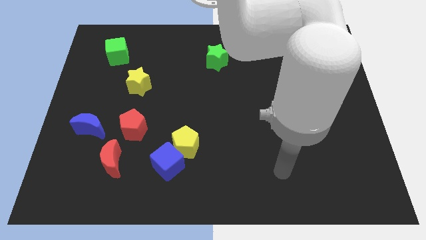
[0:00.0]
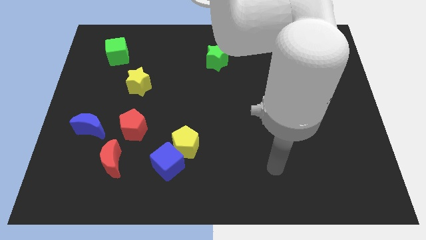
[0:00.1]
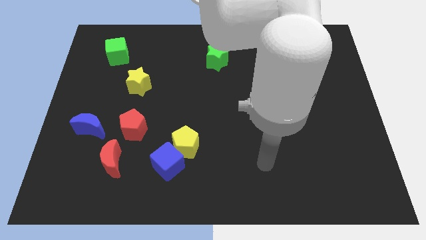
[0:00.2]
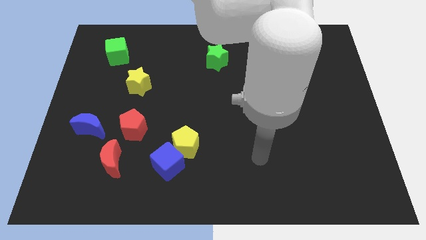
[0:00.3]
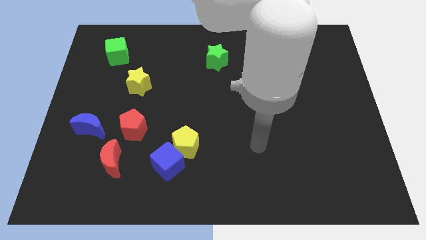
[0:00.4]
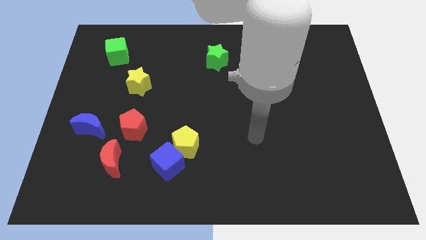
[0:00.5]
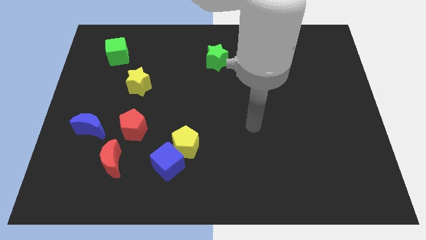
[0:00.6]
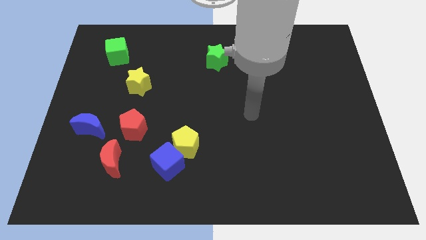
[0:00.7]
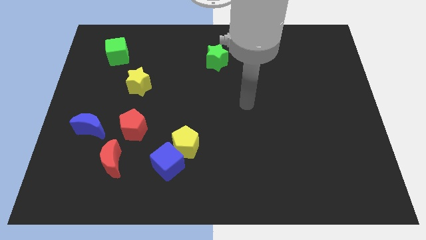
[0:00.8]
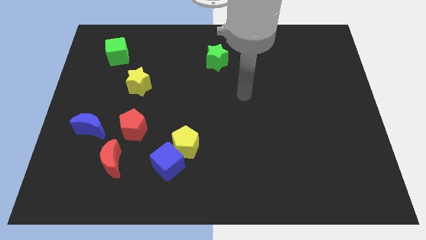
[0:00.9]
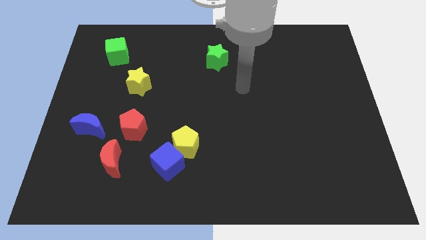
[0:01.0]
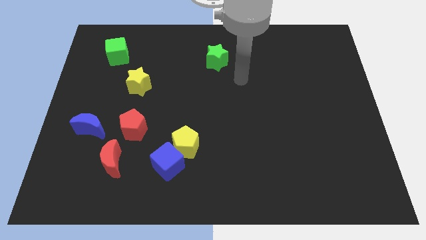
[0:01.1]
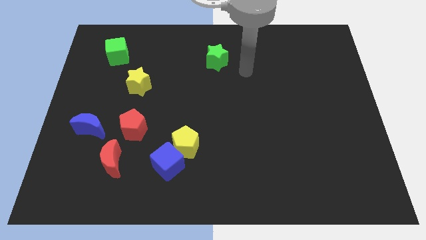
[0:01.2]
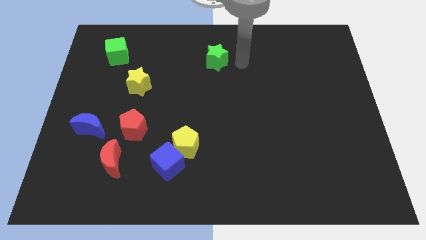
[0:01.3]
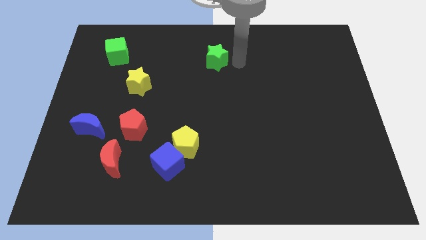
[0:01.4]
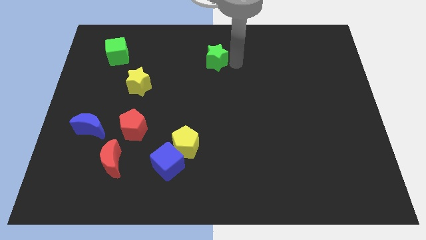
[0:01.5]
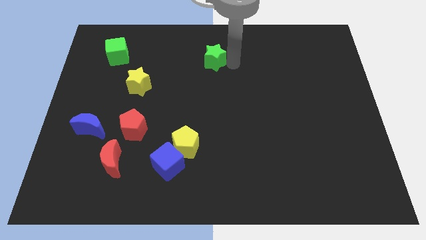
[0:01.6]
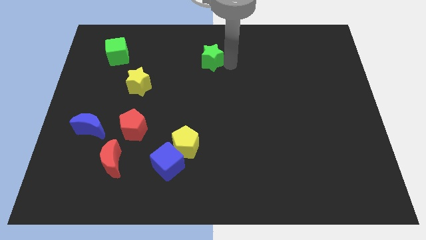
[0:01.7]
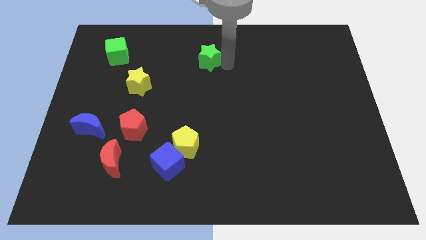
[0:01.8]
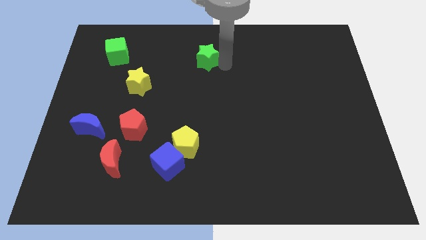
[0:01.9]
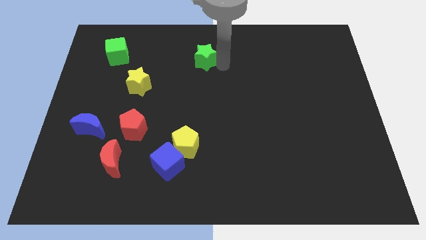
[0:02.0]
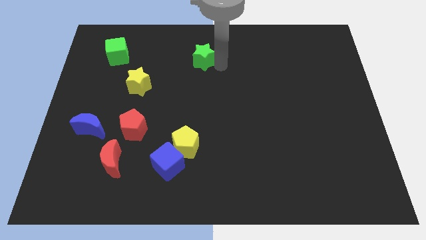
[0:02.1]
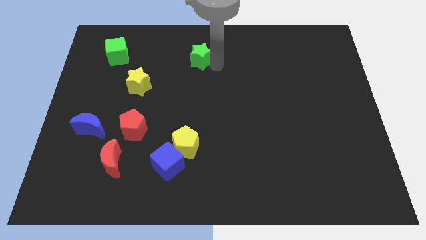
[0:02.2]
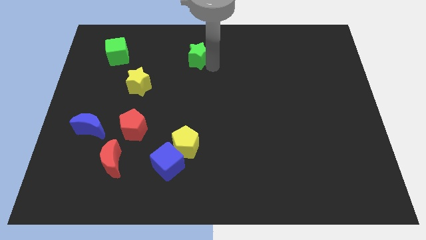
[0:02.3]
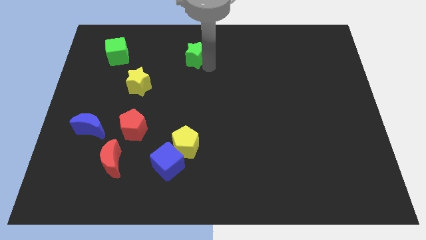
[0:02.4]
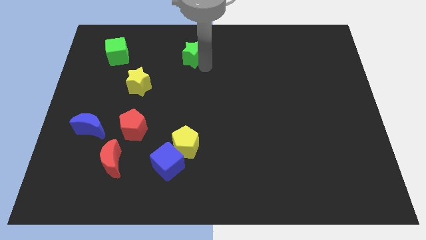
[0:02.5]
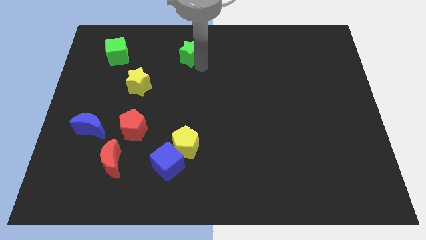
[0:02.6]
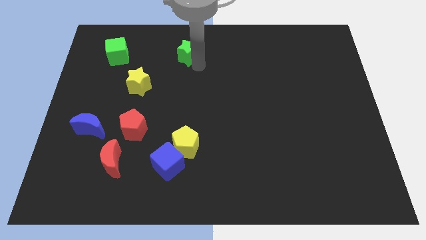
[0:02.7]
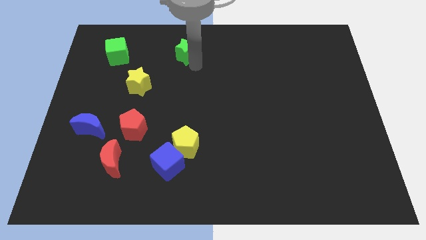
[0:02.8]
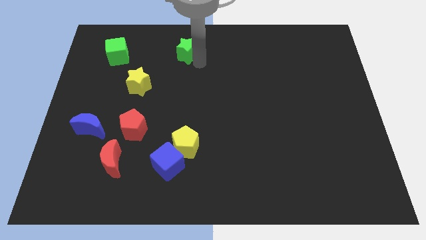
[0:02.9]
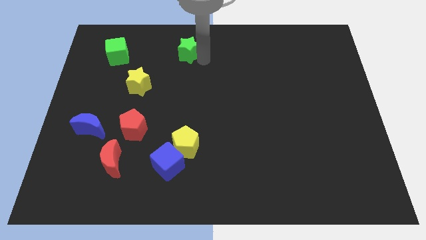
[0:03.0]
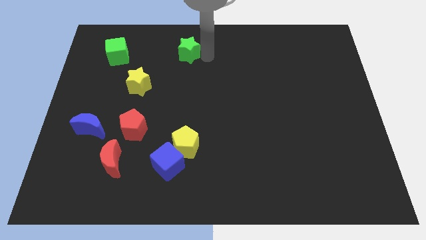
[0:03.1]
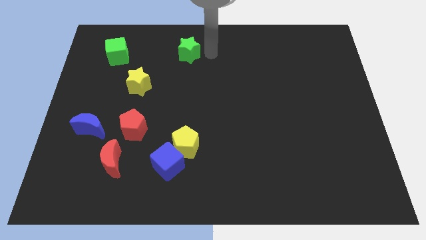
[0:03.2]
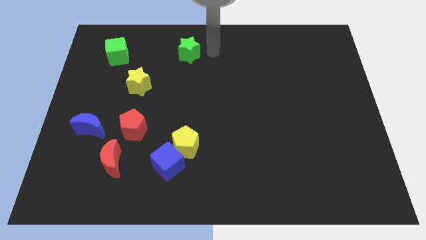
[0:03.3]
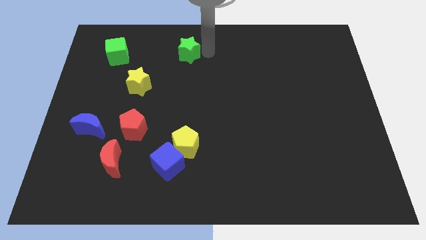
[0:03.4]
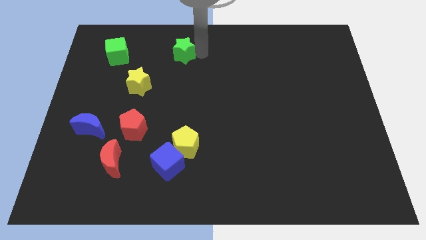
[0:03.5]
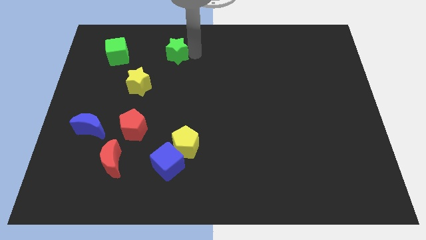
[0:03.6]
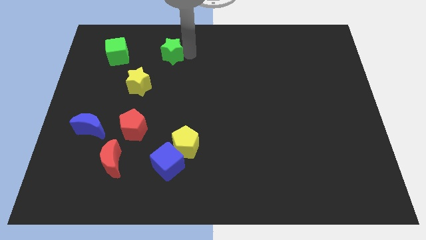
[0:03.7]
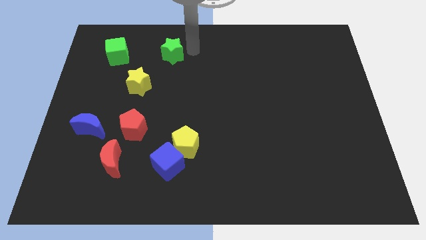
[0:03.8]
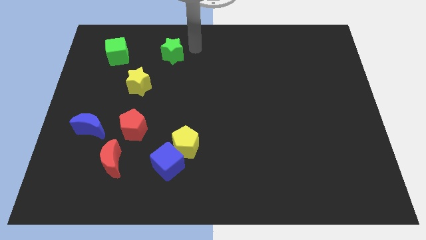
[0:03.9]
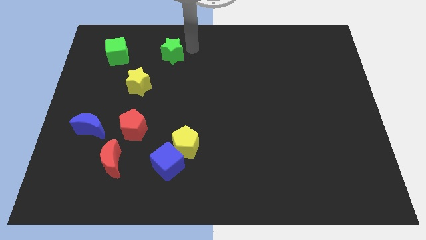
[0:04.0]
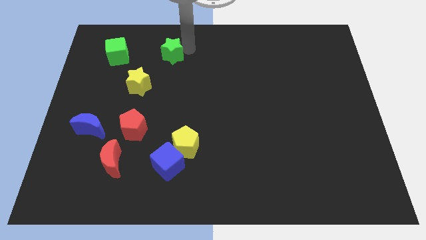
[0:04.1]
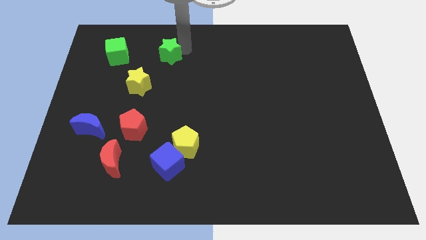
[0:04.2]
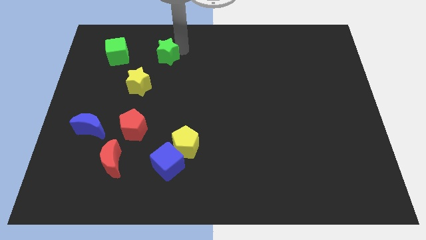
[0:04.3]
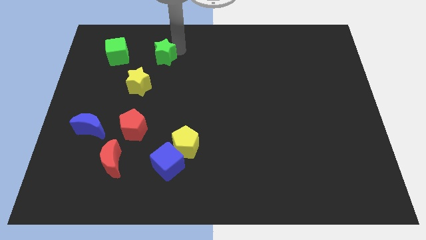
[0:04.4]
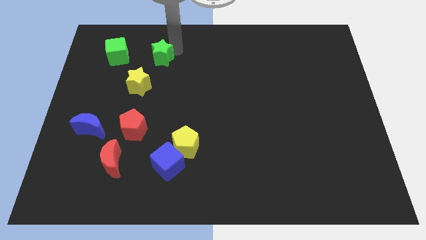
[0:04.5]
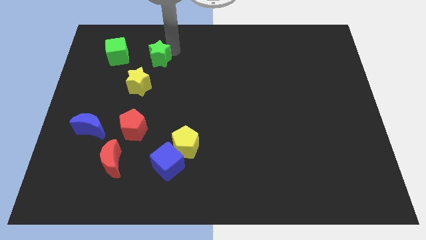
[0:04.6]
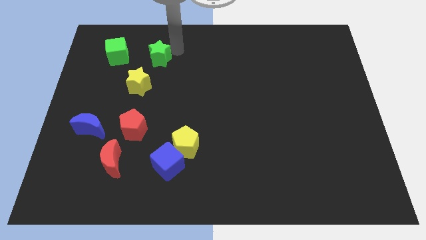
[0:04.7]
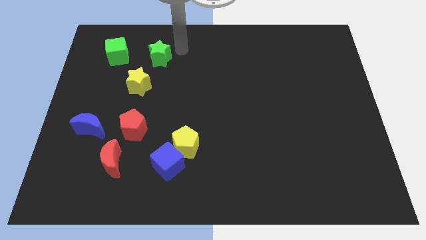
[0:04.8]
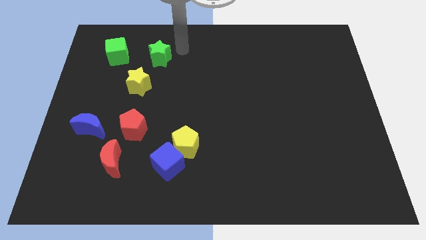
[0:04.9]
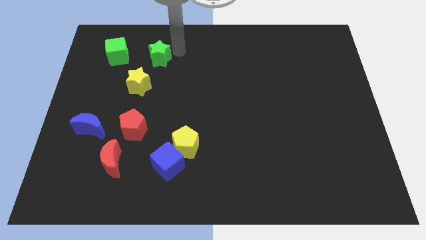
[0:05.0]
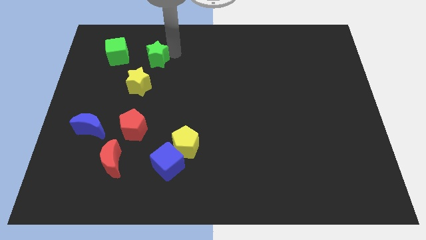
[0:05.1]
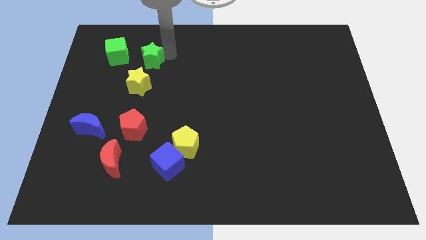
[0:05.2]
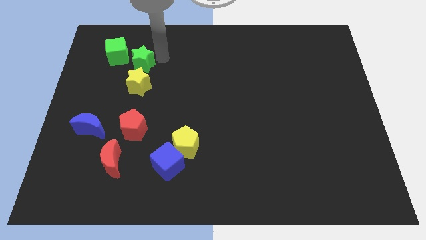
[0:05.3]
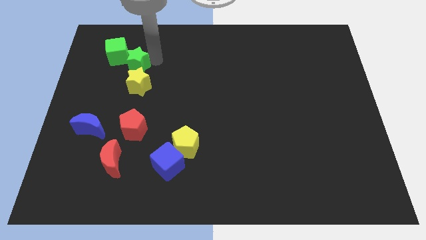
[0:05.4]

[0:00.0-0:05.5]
put the green star to the top left side of the yellow star

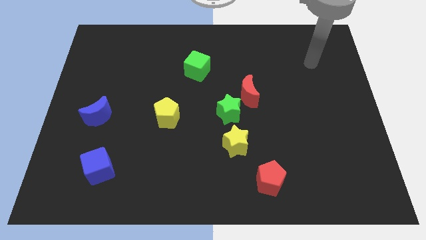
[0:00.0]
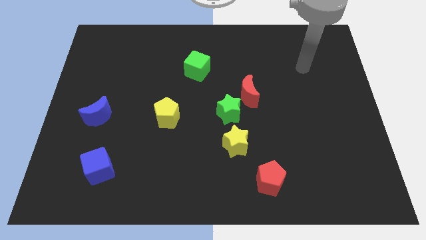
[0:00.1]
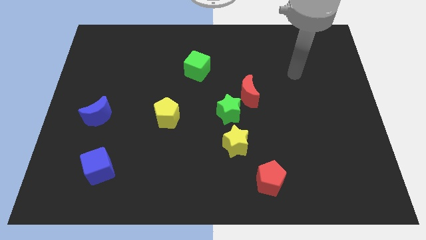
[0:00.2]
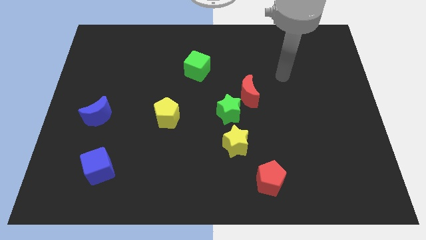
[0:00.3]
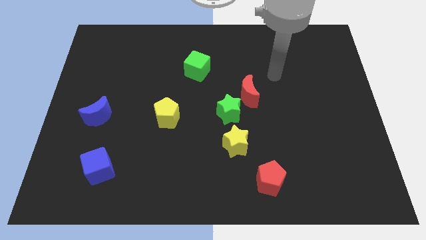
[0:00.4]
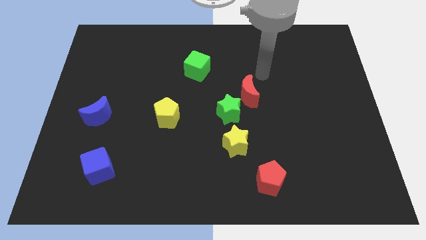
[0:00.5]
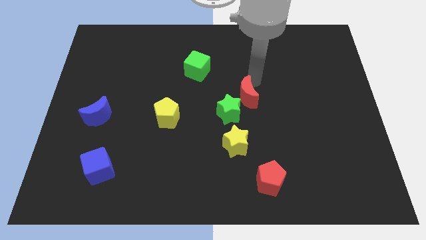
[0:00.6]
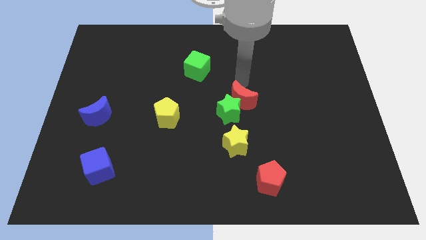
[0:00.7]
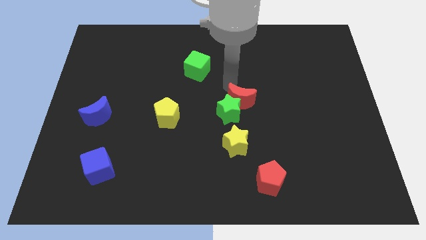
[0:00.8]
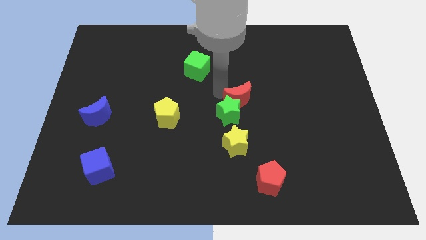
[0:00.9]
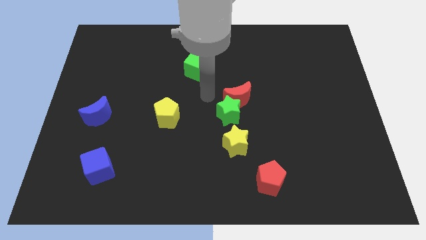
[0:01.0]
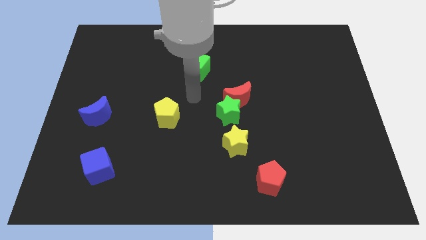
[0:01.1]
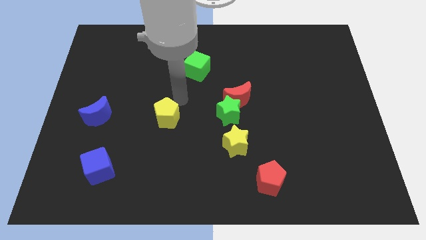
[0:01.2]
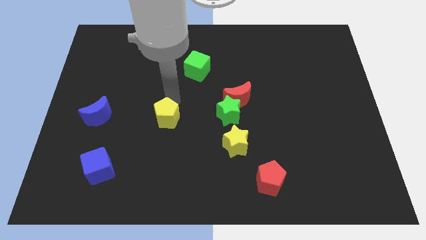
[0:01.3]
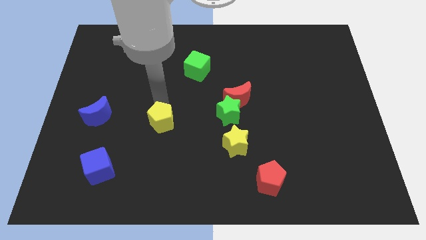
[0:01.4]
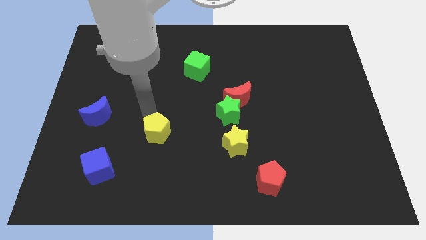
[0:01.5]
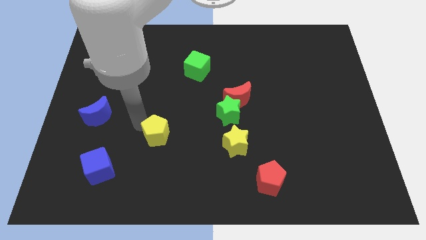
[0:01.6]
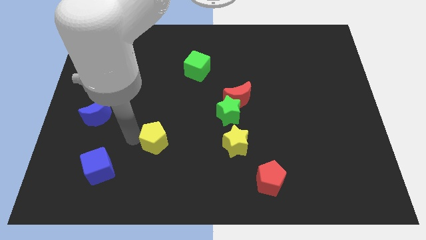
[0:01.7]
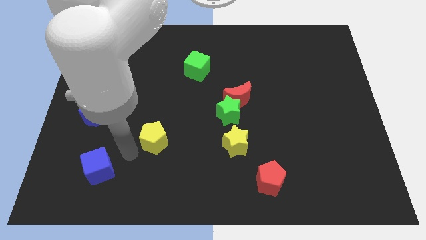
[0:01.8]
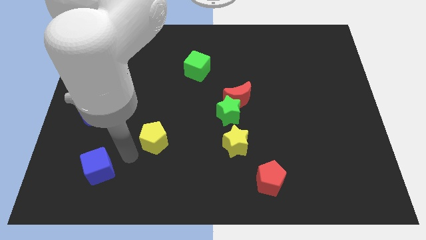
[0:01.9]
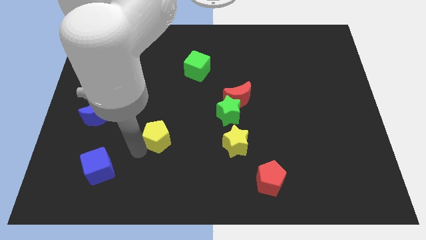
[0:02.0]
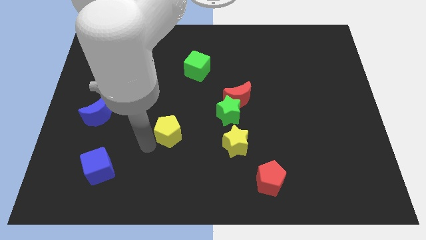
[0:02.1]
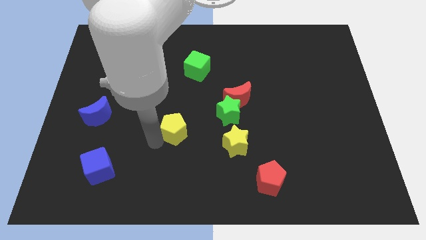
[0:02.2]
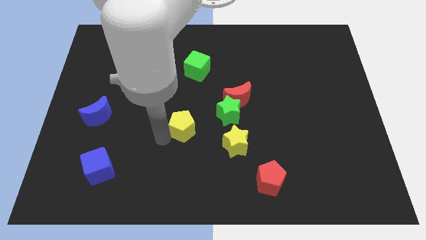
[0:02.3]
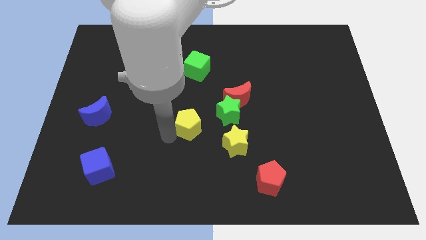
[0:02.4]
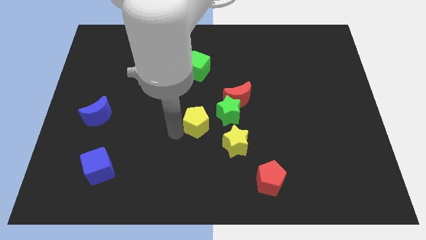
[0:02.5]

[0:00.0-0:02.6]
slide the yellow pentagon to the bottom left of the red moon
